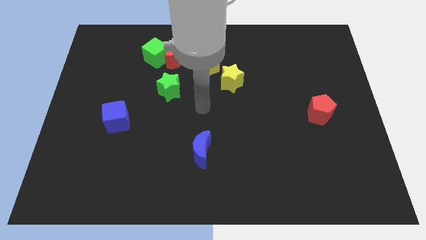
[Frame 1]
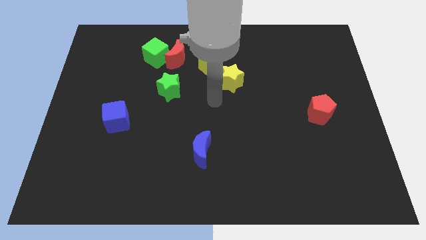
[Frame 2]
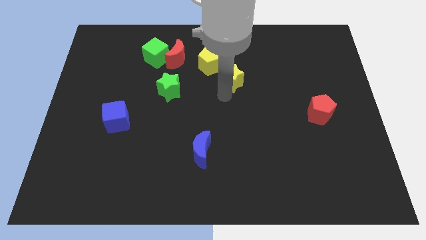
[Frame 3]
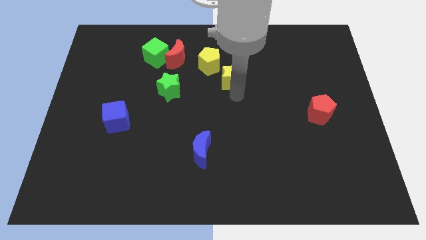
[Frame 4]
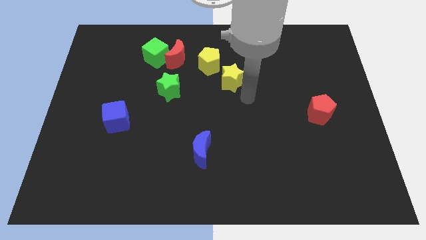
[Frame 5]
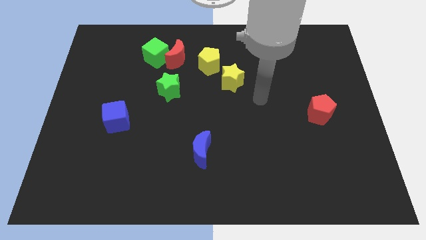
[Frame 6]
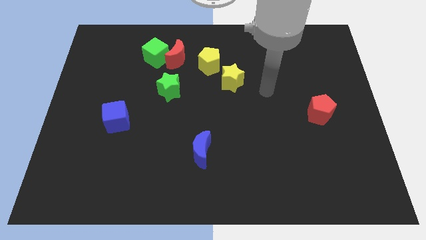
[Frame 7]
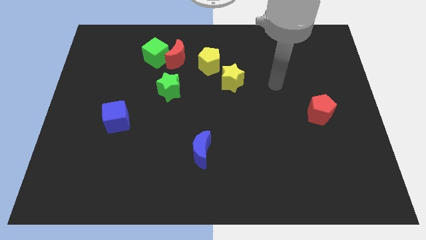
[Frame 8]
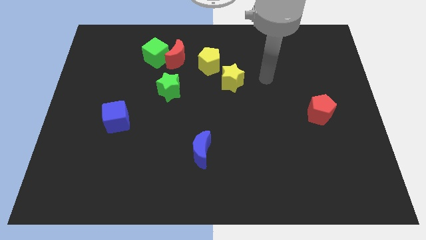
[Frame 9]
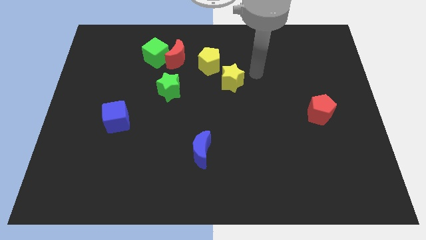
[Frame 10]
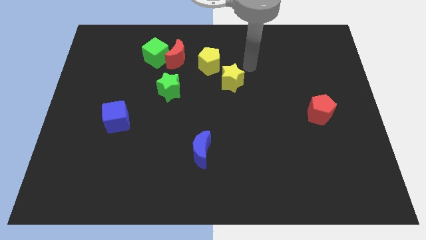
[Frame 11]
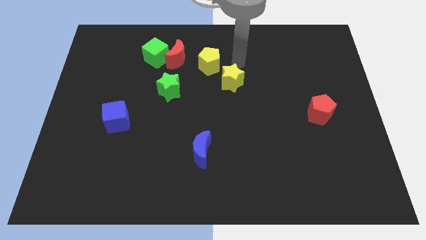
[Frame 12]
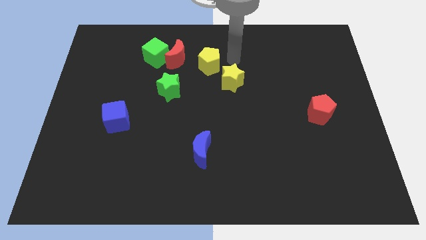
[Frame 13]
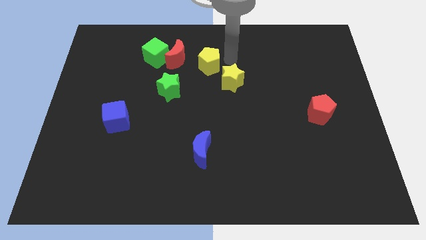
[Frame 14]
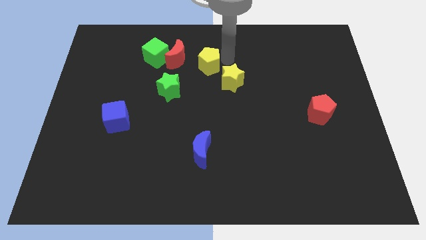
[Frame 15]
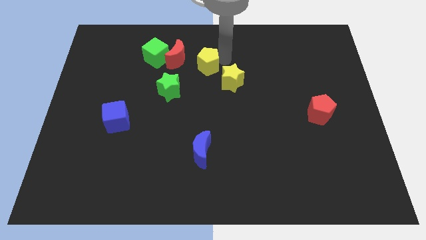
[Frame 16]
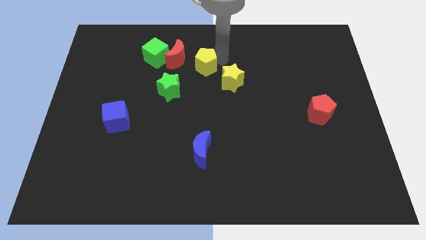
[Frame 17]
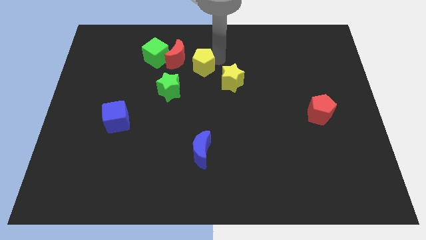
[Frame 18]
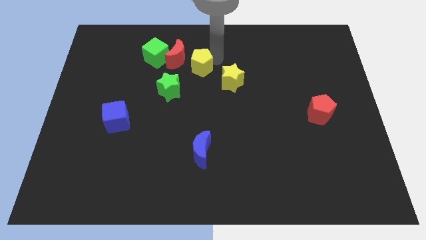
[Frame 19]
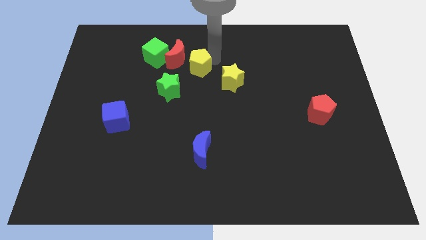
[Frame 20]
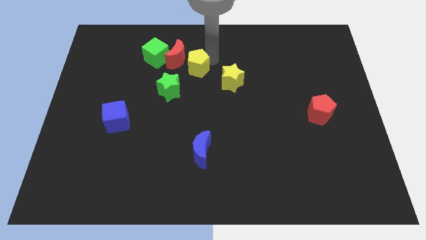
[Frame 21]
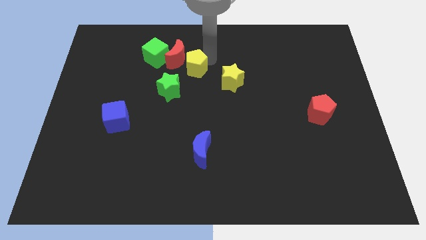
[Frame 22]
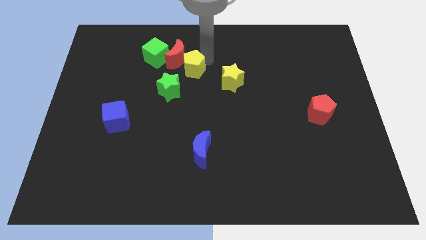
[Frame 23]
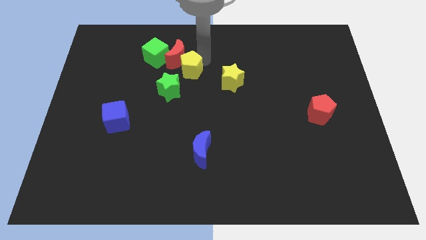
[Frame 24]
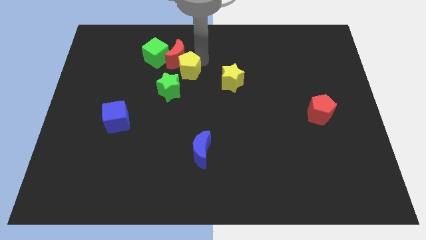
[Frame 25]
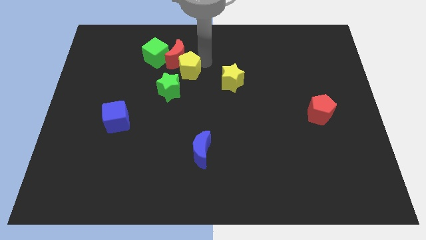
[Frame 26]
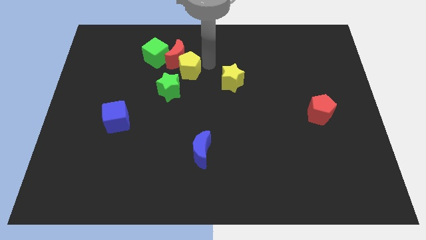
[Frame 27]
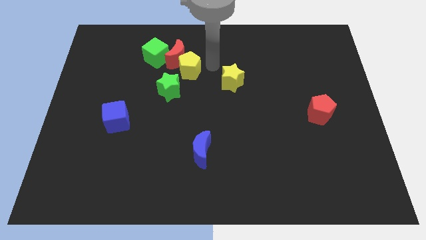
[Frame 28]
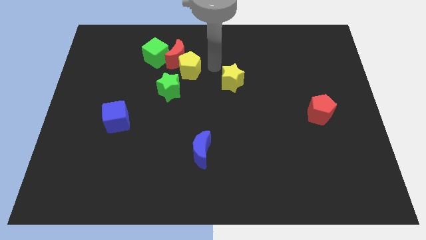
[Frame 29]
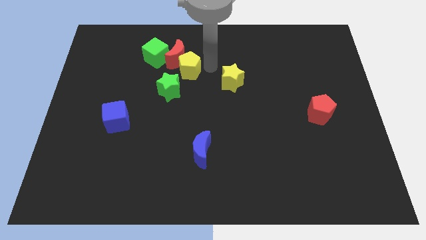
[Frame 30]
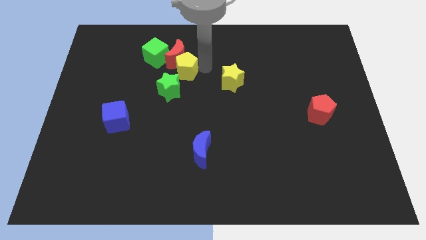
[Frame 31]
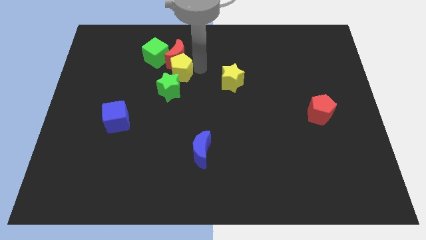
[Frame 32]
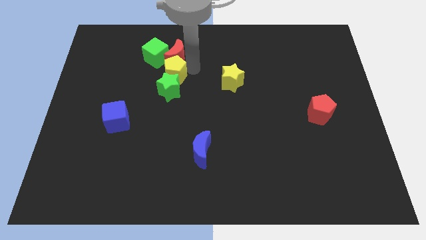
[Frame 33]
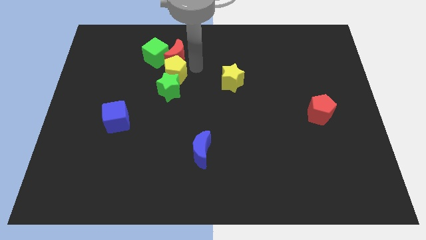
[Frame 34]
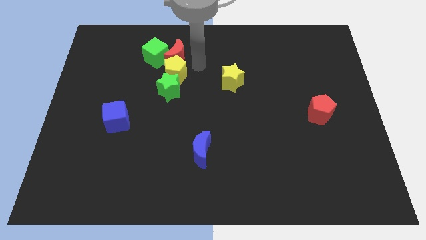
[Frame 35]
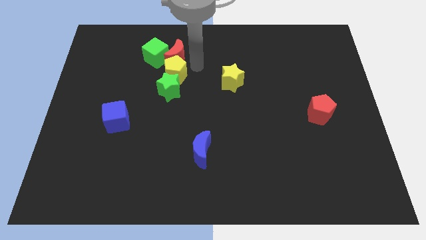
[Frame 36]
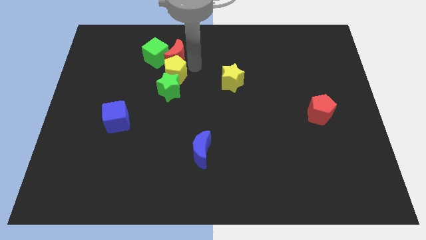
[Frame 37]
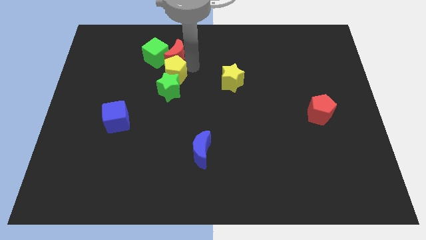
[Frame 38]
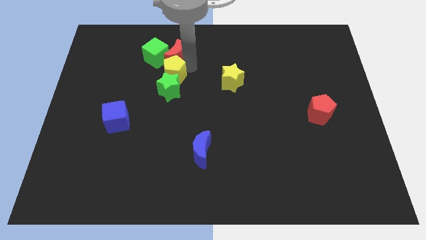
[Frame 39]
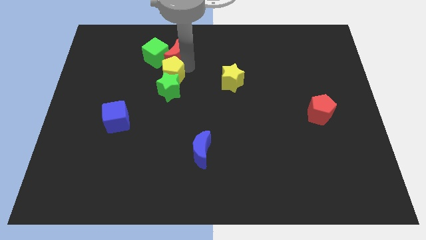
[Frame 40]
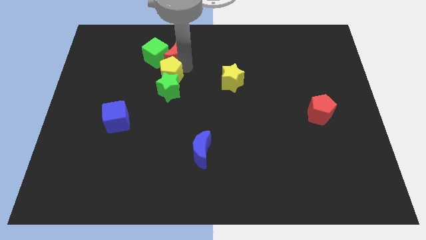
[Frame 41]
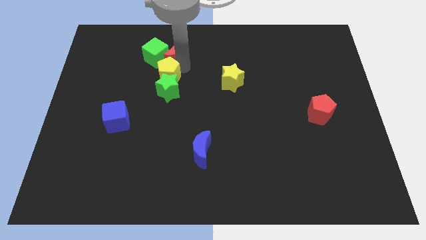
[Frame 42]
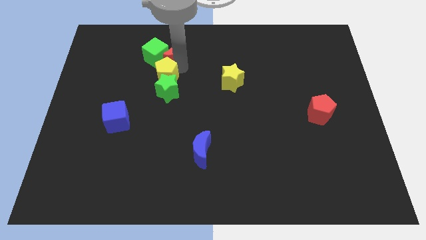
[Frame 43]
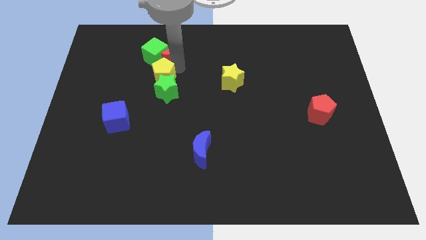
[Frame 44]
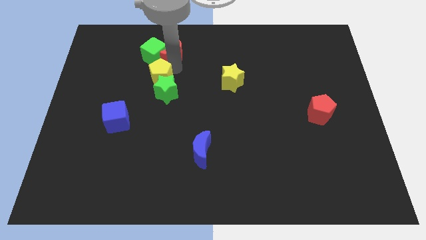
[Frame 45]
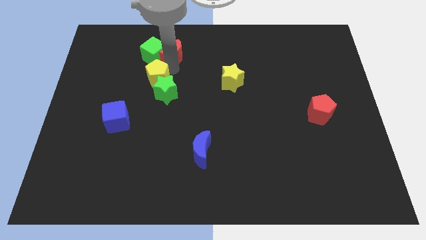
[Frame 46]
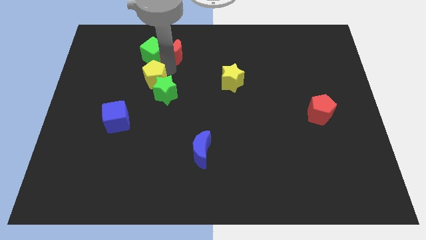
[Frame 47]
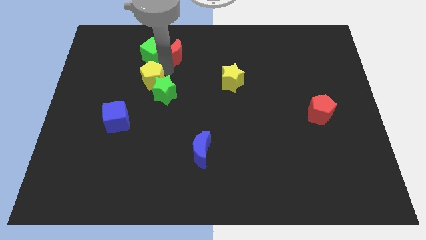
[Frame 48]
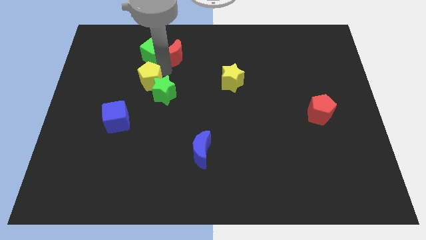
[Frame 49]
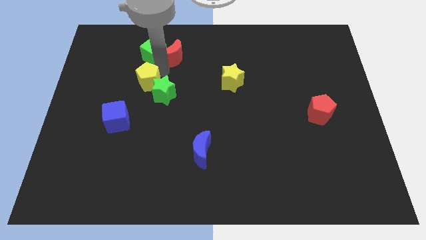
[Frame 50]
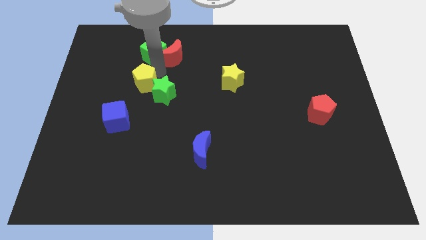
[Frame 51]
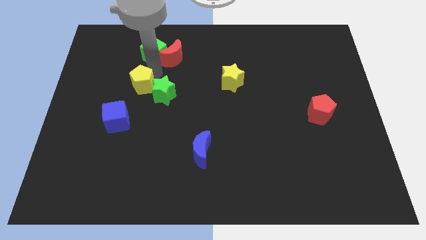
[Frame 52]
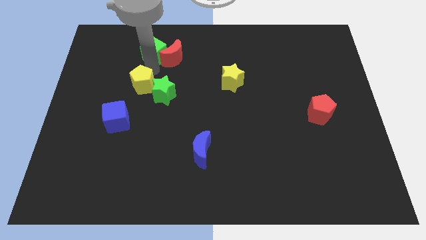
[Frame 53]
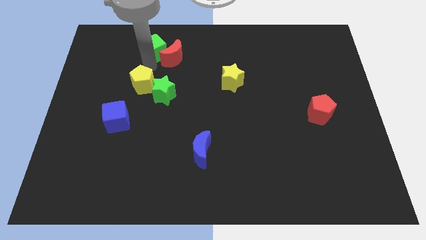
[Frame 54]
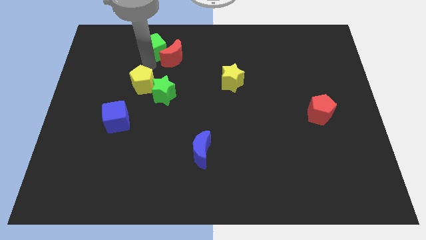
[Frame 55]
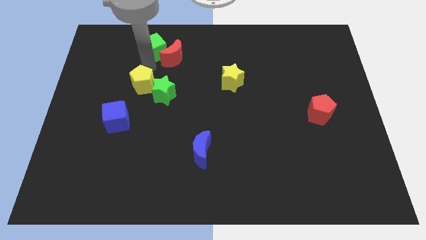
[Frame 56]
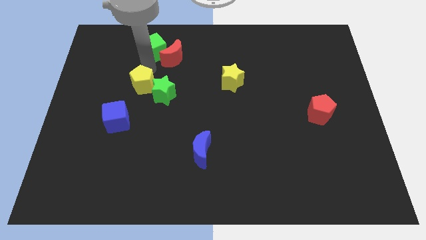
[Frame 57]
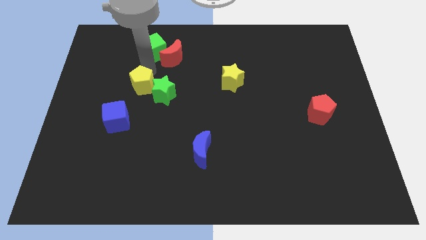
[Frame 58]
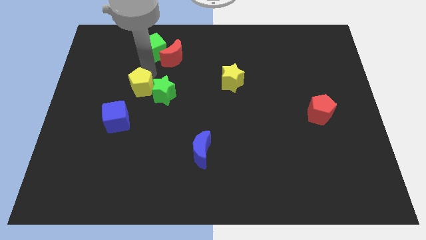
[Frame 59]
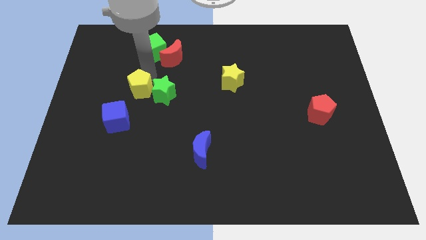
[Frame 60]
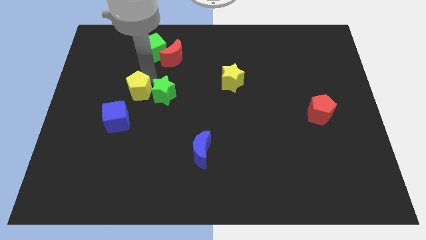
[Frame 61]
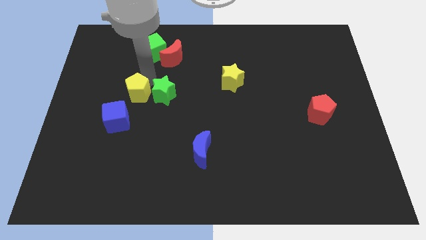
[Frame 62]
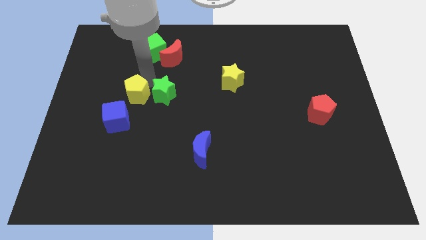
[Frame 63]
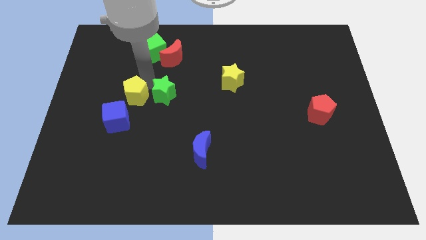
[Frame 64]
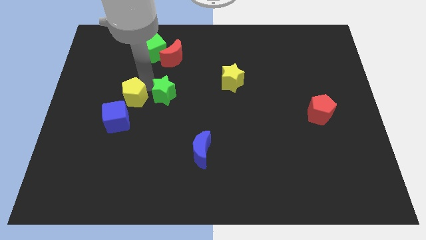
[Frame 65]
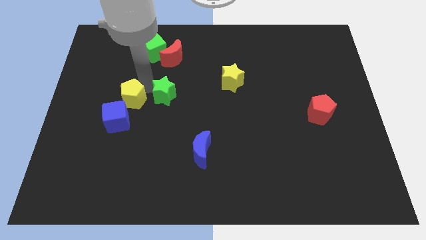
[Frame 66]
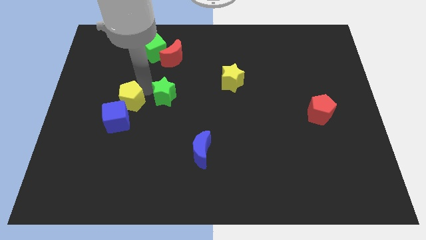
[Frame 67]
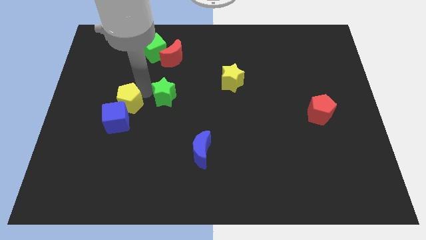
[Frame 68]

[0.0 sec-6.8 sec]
push the yellow pentagon close to the blue cube

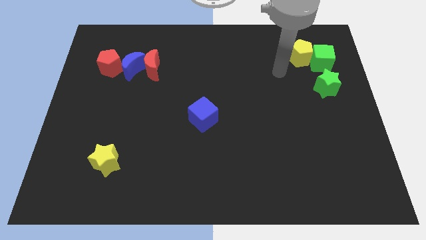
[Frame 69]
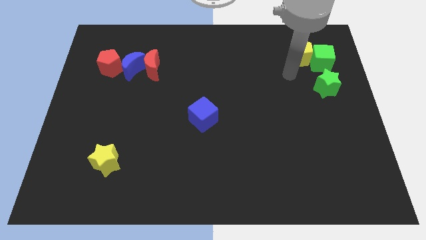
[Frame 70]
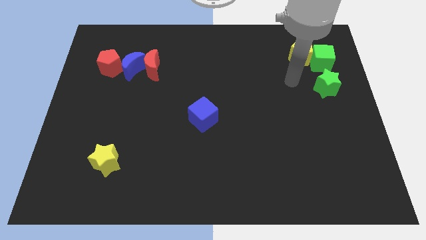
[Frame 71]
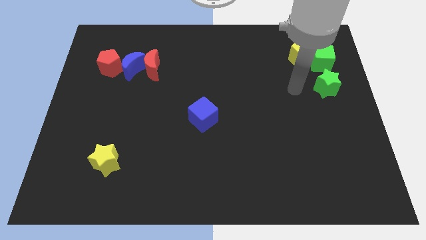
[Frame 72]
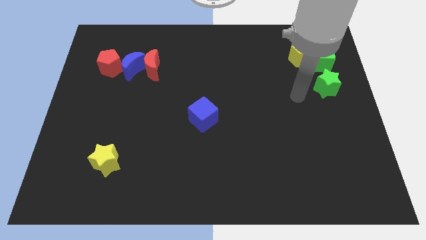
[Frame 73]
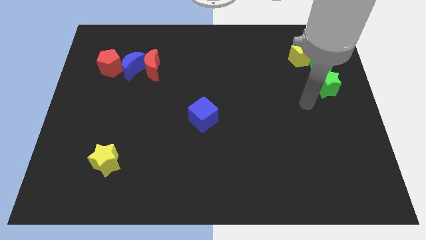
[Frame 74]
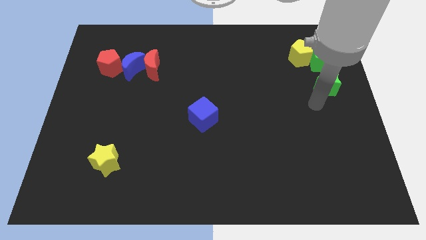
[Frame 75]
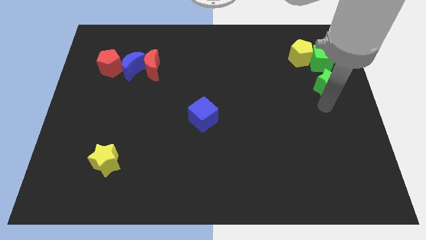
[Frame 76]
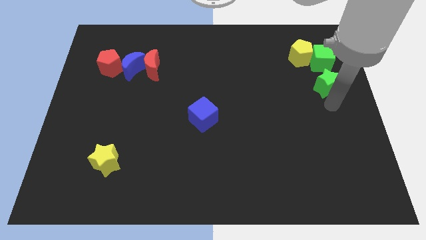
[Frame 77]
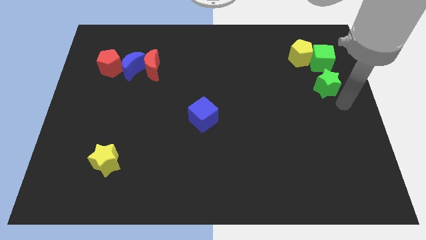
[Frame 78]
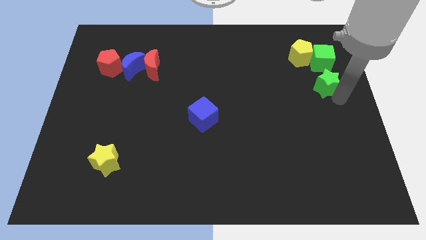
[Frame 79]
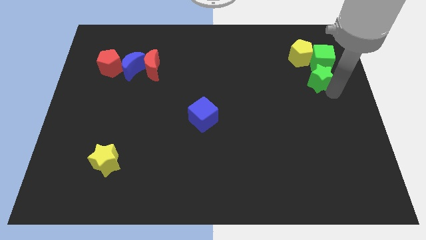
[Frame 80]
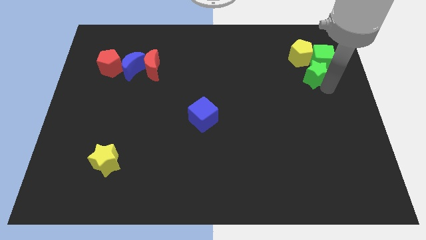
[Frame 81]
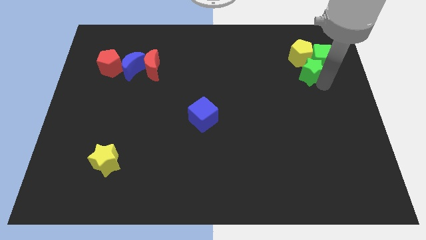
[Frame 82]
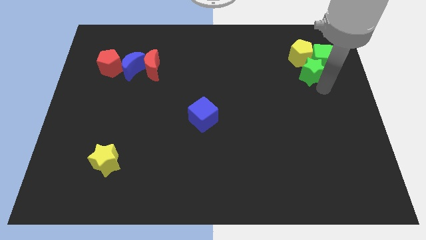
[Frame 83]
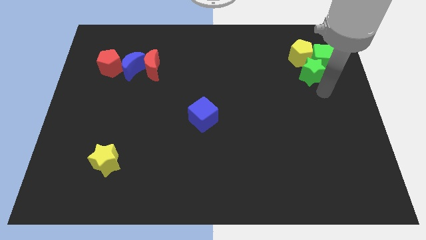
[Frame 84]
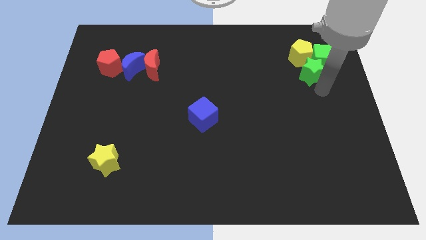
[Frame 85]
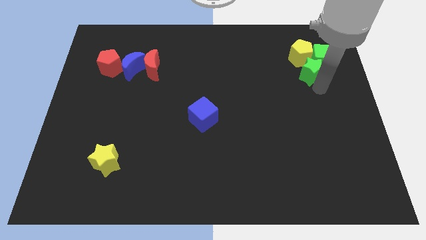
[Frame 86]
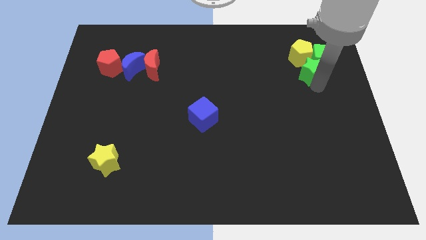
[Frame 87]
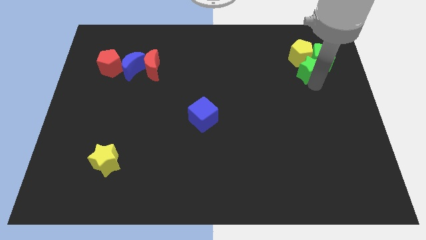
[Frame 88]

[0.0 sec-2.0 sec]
slide the green star to the yellow pentagon
